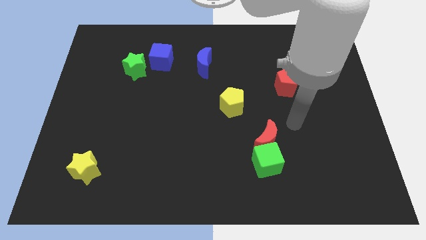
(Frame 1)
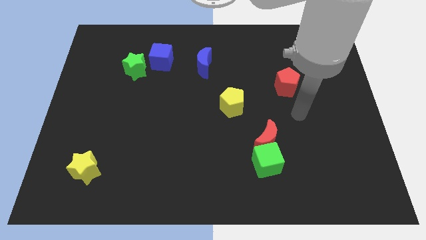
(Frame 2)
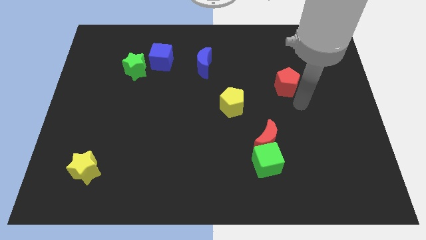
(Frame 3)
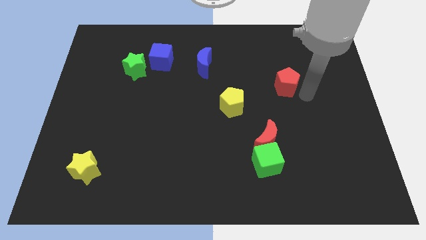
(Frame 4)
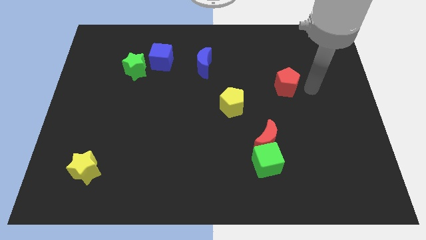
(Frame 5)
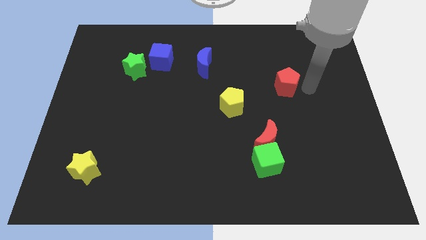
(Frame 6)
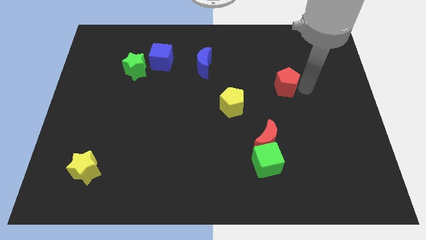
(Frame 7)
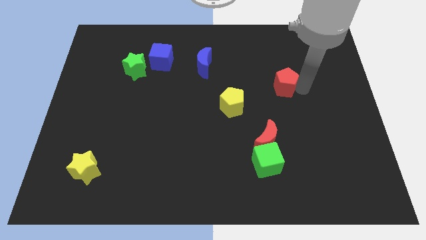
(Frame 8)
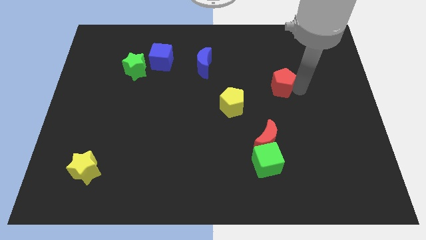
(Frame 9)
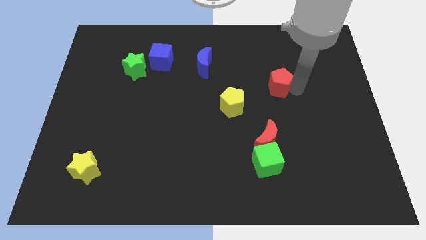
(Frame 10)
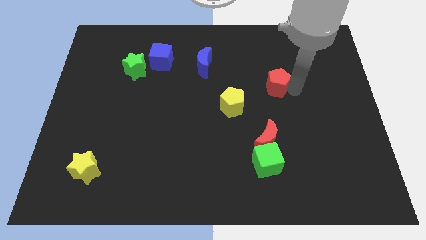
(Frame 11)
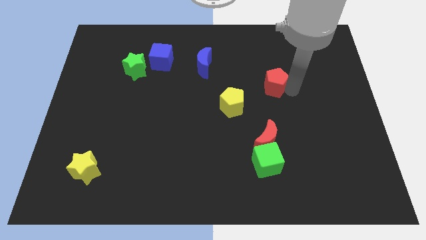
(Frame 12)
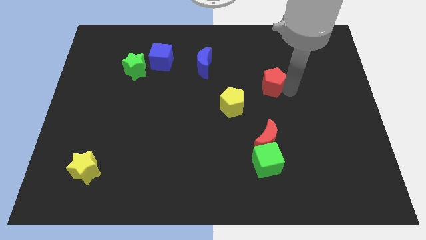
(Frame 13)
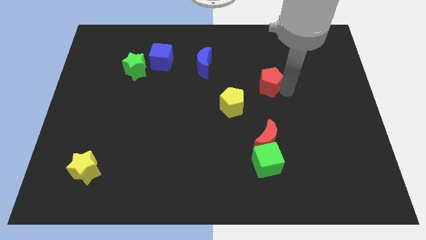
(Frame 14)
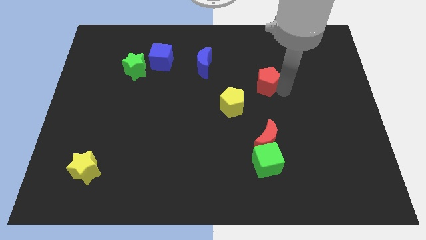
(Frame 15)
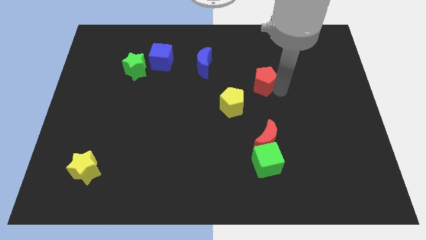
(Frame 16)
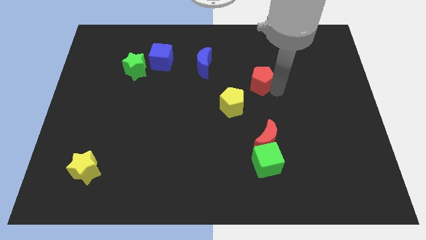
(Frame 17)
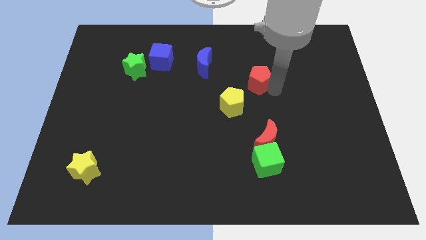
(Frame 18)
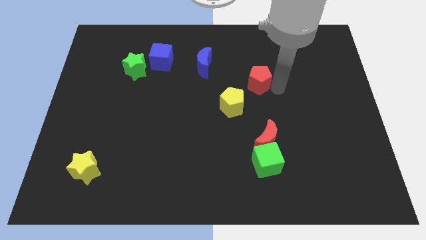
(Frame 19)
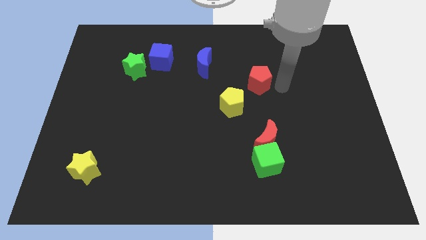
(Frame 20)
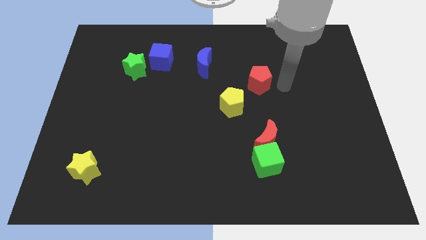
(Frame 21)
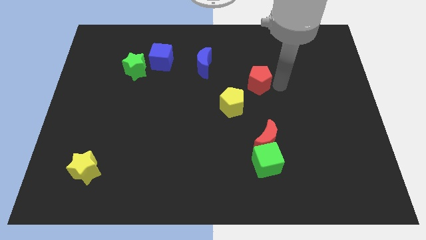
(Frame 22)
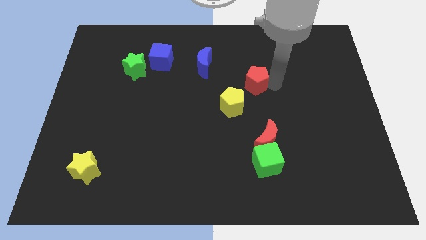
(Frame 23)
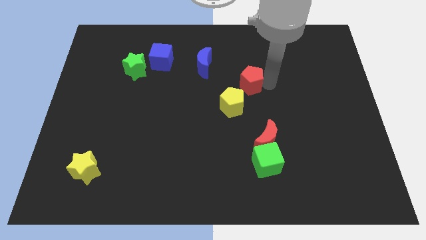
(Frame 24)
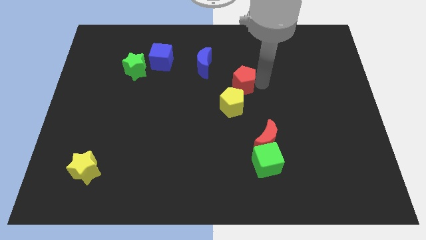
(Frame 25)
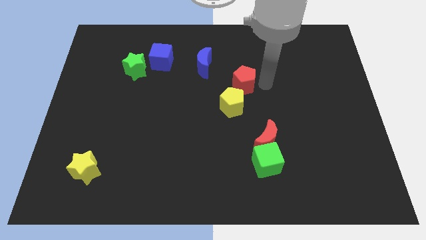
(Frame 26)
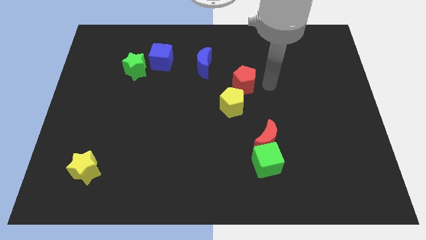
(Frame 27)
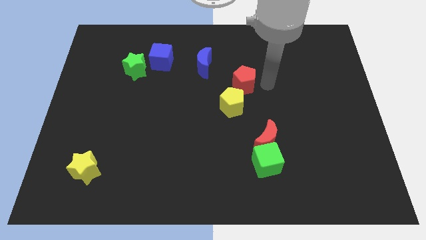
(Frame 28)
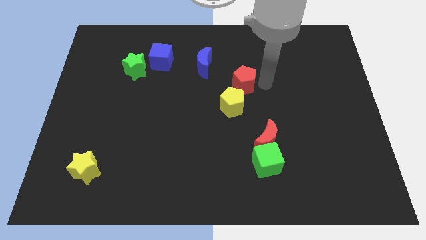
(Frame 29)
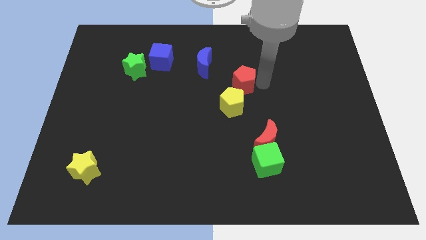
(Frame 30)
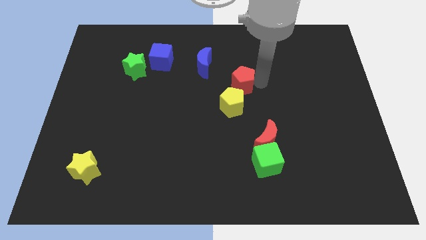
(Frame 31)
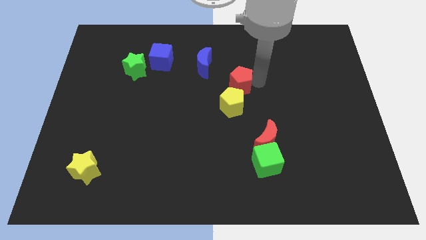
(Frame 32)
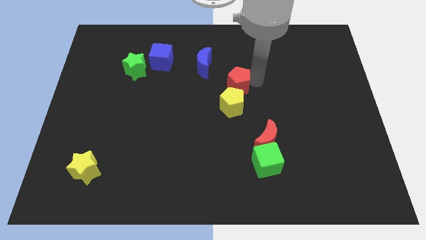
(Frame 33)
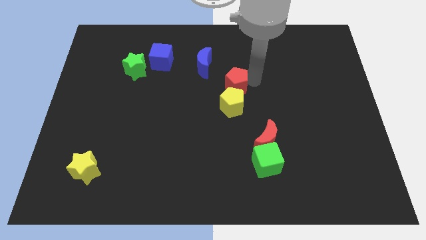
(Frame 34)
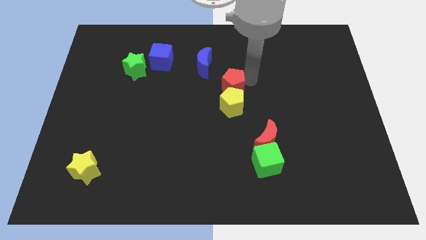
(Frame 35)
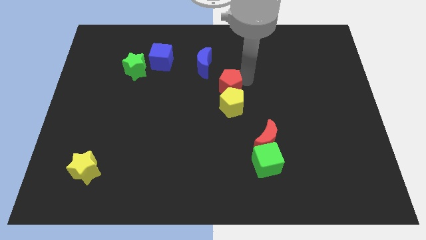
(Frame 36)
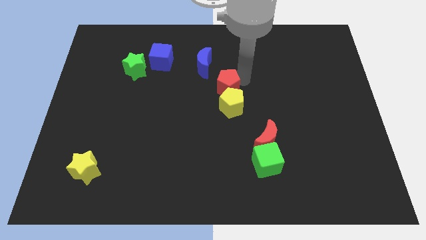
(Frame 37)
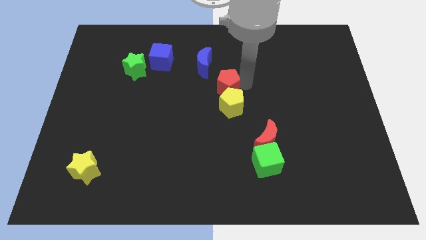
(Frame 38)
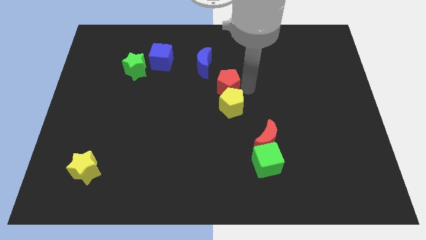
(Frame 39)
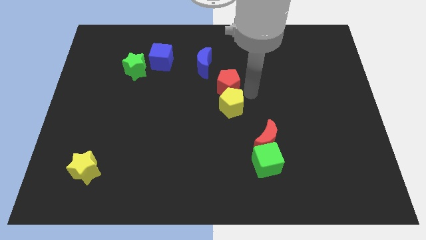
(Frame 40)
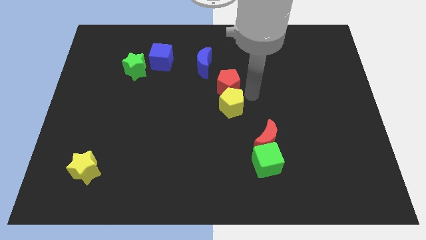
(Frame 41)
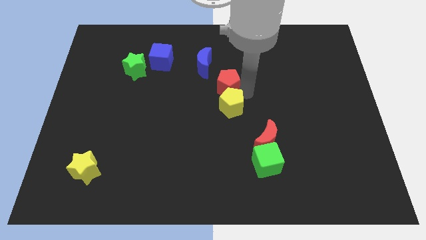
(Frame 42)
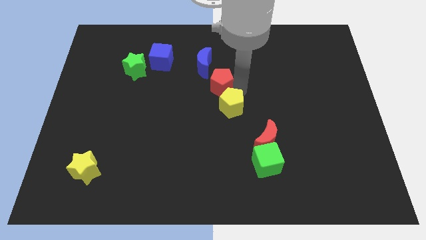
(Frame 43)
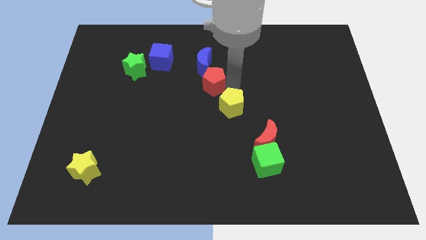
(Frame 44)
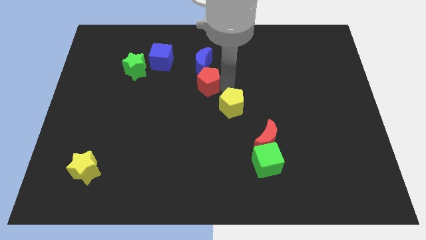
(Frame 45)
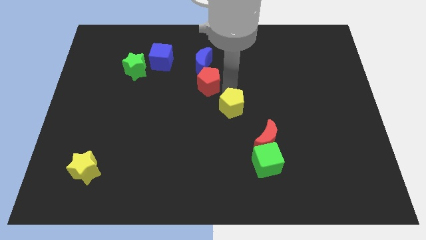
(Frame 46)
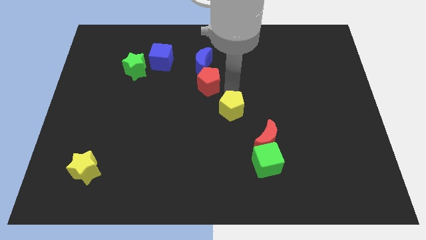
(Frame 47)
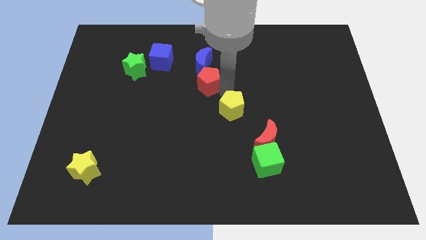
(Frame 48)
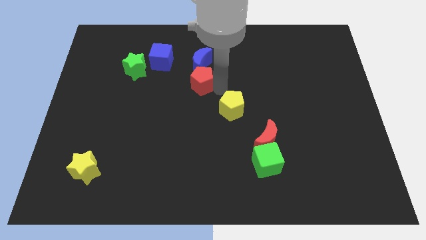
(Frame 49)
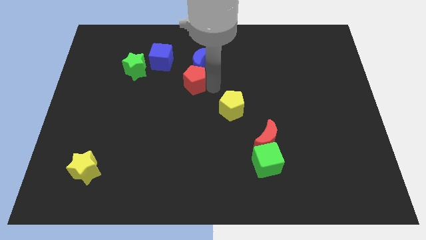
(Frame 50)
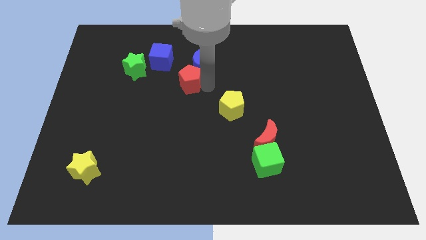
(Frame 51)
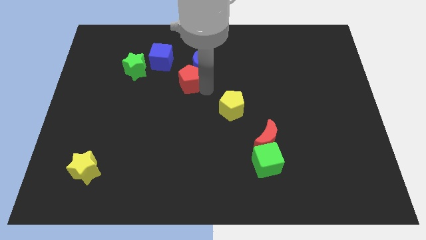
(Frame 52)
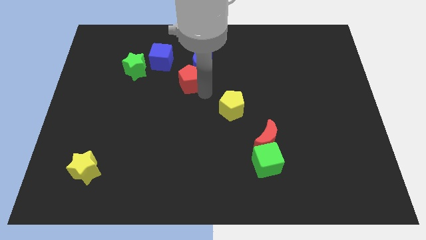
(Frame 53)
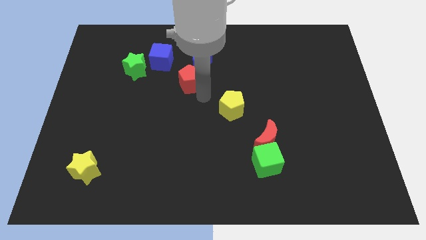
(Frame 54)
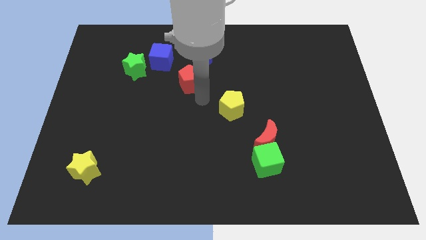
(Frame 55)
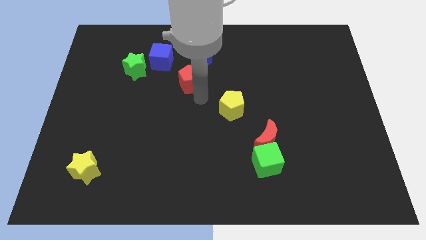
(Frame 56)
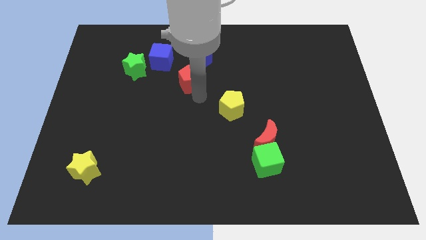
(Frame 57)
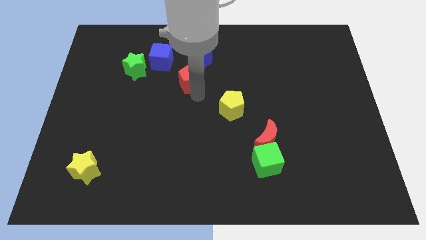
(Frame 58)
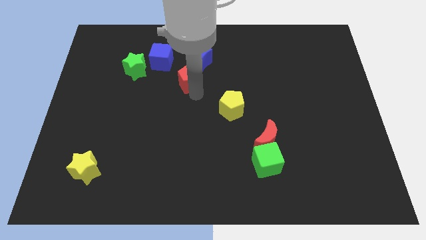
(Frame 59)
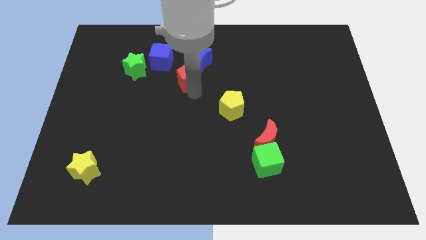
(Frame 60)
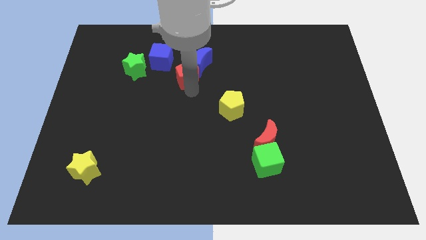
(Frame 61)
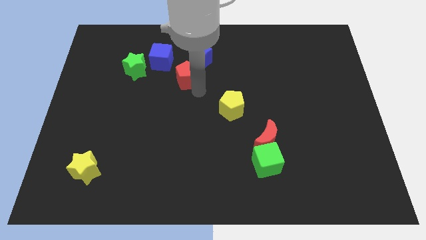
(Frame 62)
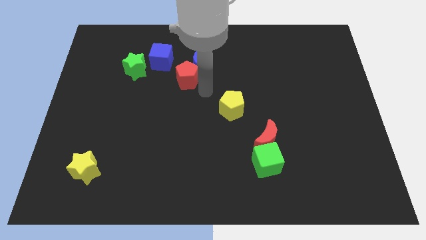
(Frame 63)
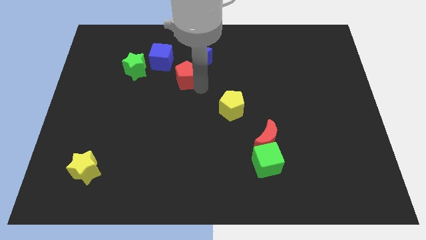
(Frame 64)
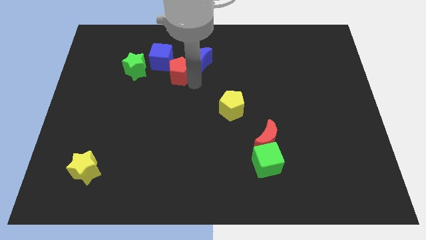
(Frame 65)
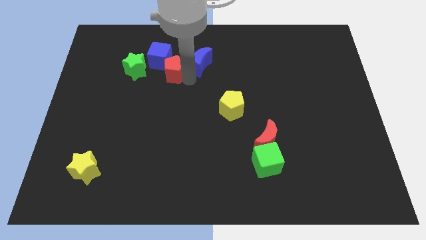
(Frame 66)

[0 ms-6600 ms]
slide the red pentagon towards the blue cube

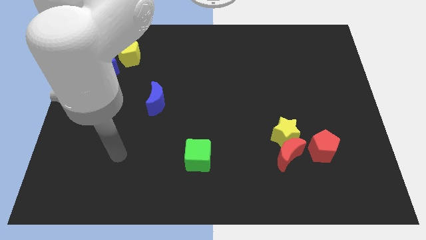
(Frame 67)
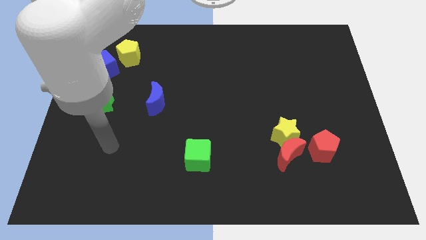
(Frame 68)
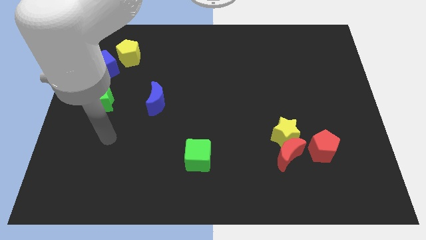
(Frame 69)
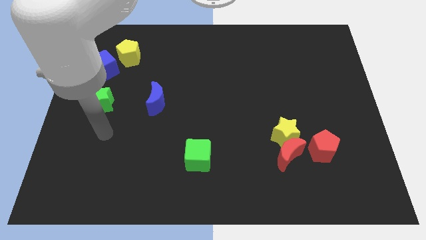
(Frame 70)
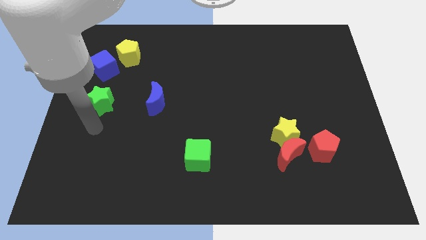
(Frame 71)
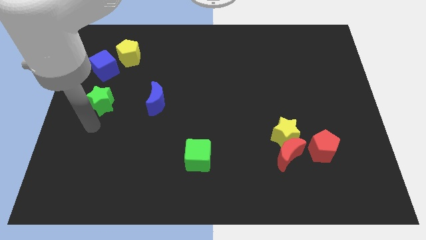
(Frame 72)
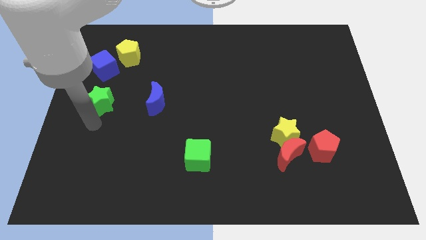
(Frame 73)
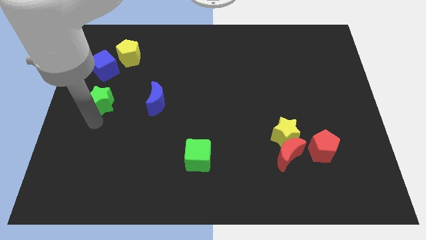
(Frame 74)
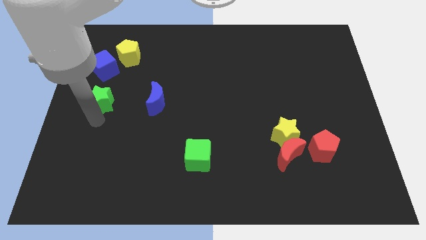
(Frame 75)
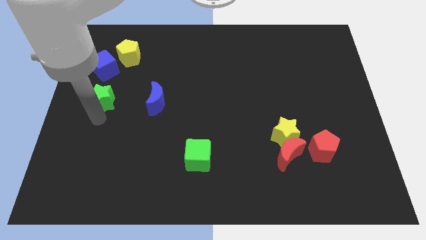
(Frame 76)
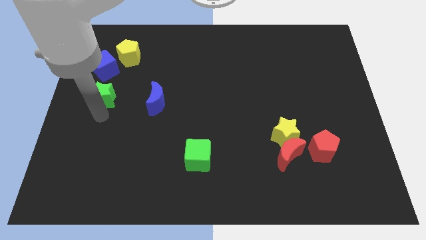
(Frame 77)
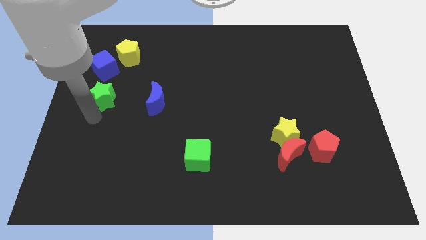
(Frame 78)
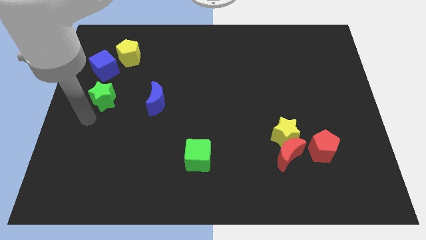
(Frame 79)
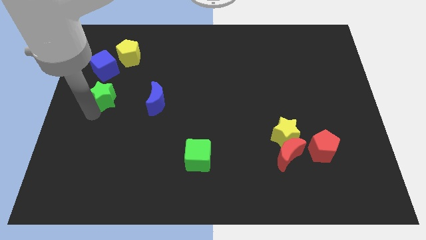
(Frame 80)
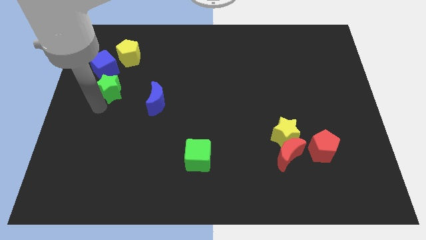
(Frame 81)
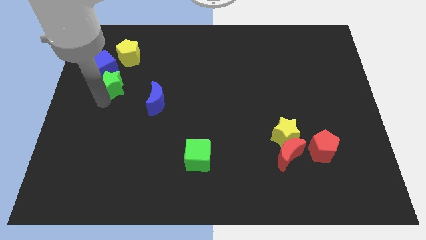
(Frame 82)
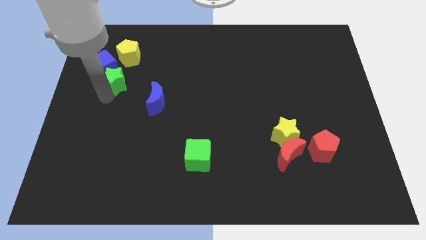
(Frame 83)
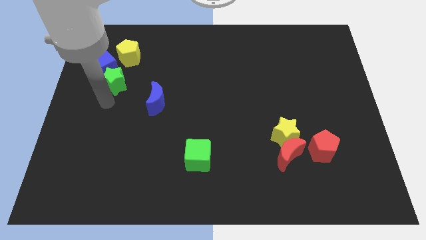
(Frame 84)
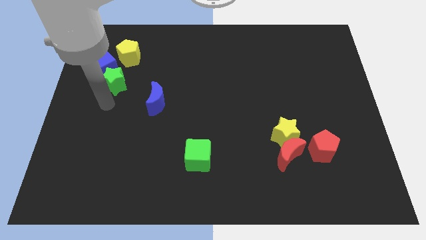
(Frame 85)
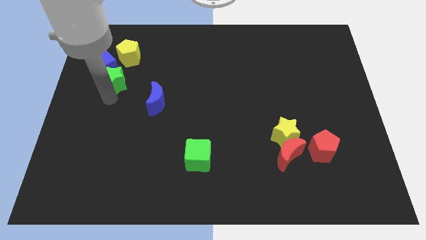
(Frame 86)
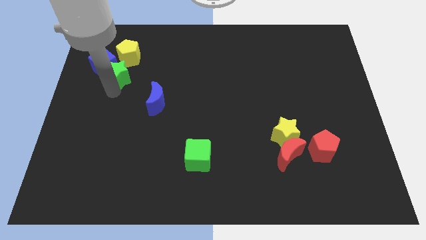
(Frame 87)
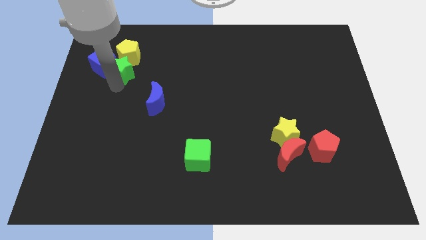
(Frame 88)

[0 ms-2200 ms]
push the green star towards the yellow pentagon
